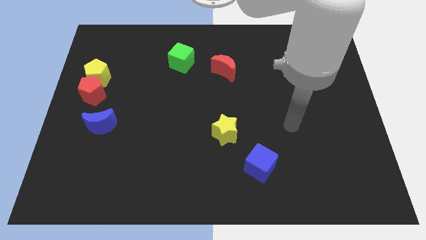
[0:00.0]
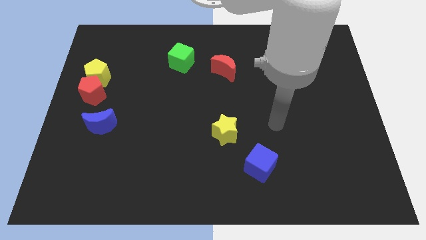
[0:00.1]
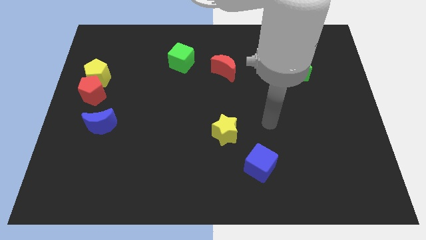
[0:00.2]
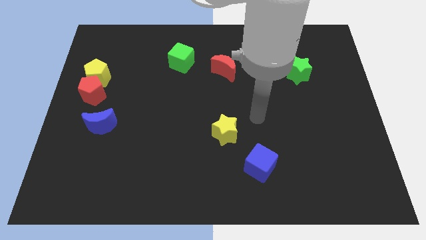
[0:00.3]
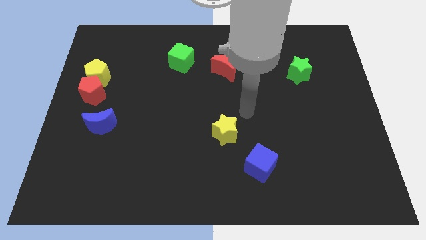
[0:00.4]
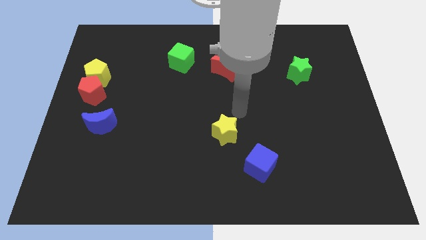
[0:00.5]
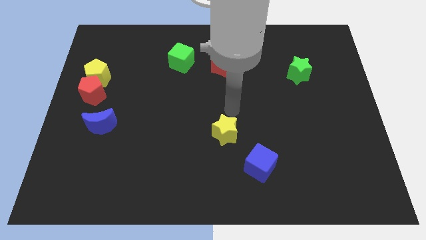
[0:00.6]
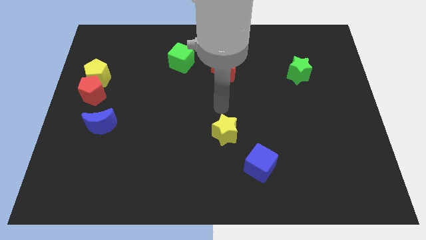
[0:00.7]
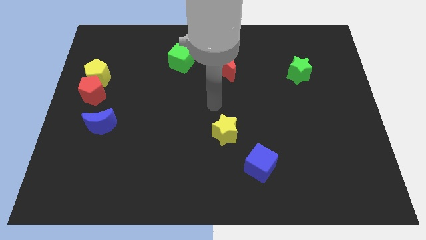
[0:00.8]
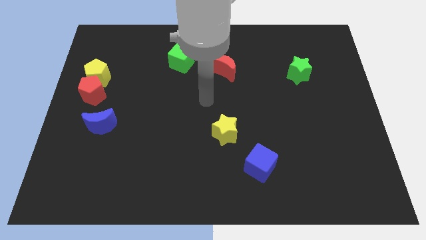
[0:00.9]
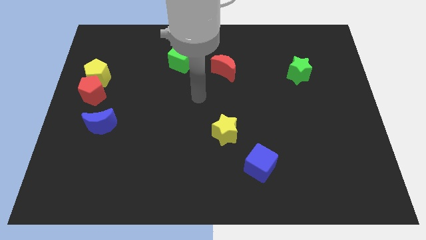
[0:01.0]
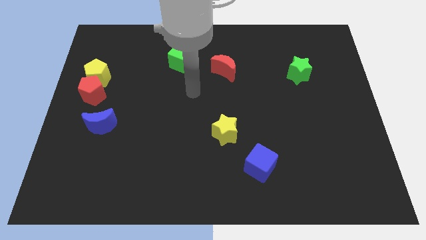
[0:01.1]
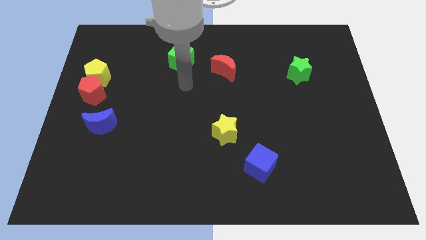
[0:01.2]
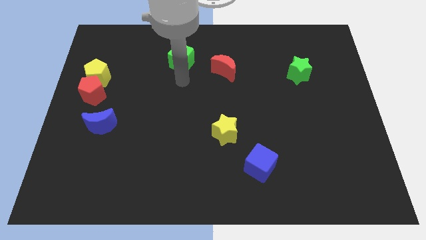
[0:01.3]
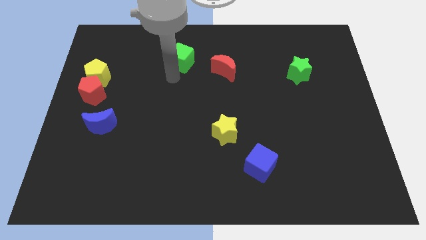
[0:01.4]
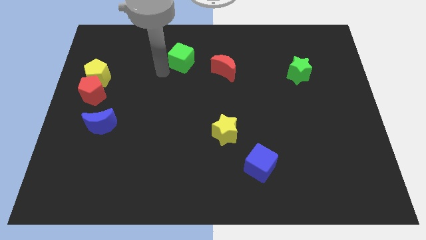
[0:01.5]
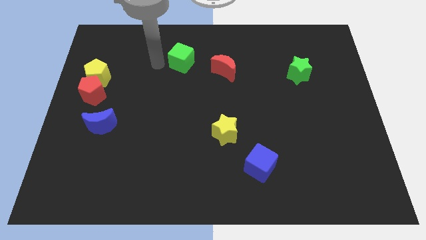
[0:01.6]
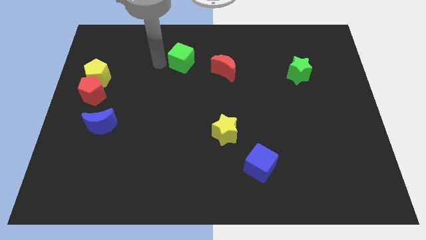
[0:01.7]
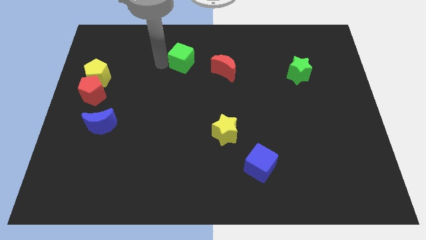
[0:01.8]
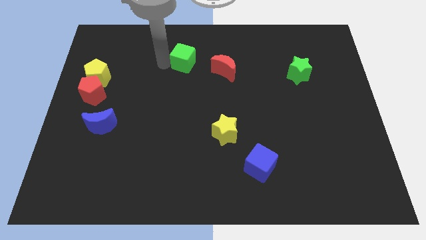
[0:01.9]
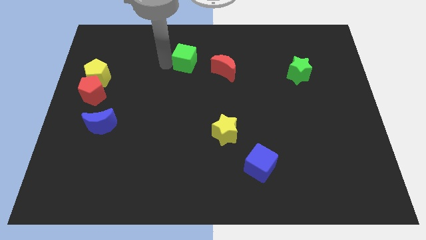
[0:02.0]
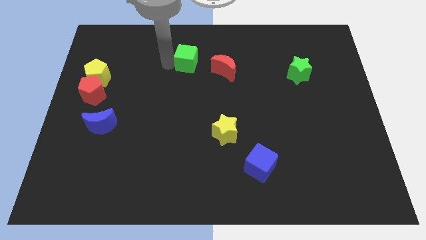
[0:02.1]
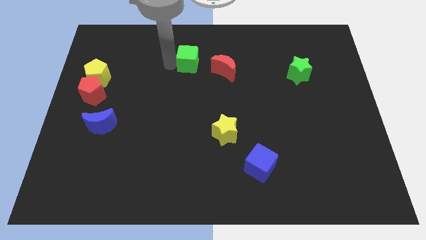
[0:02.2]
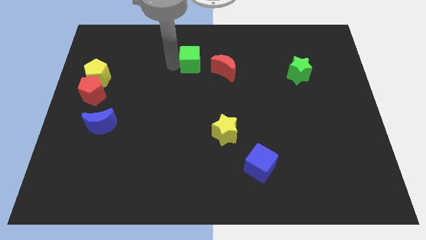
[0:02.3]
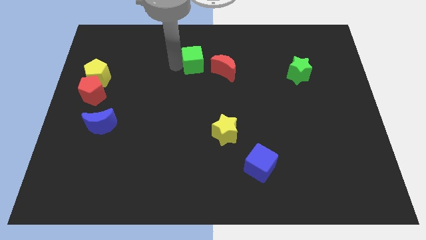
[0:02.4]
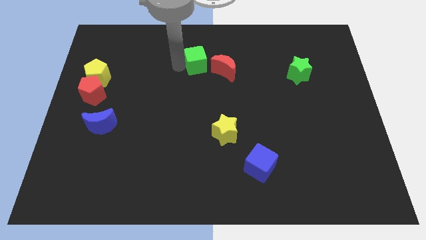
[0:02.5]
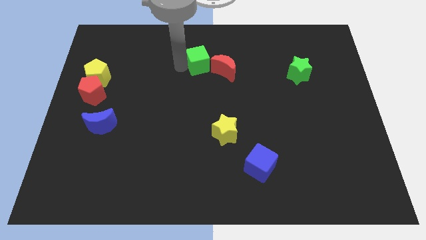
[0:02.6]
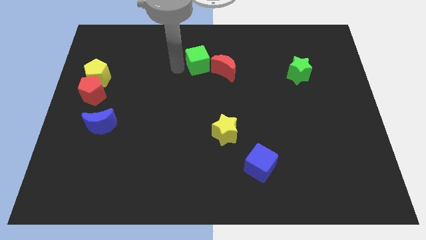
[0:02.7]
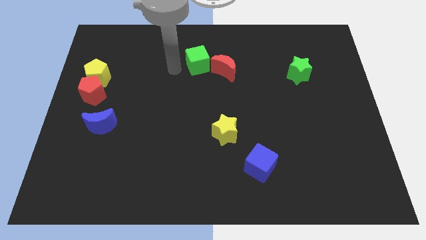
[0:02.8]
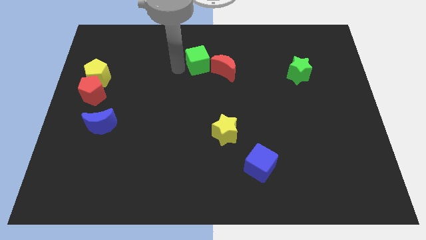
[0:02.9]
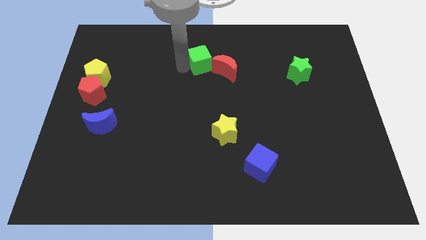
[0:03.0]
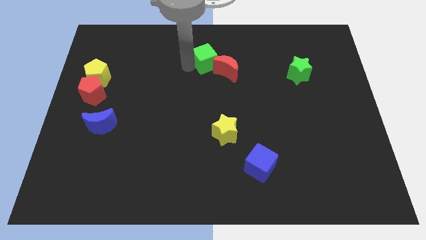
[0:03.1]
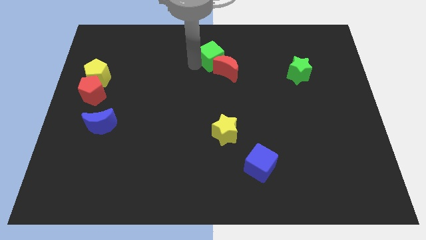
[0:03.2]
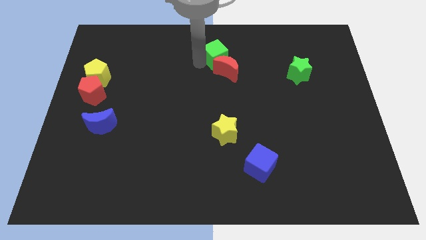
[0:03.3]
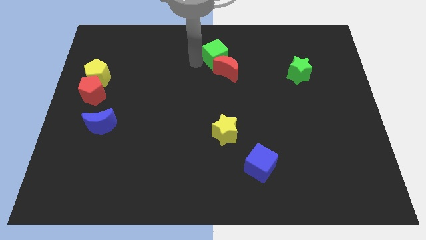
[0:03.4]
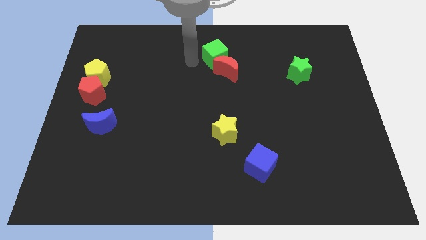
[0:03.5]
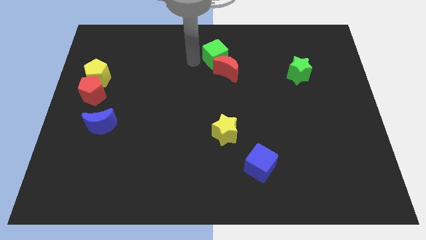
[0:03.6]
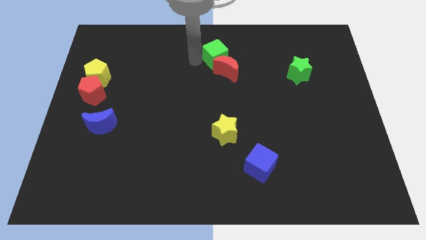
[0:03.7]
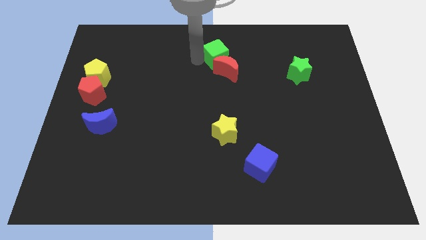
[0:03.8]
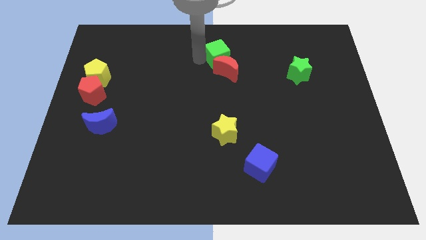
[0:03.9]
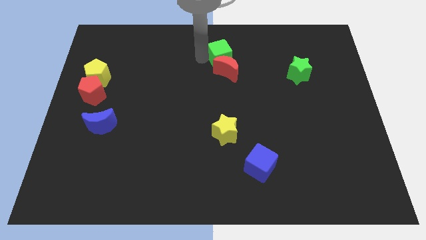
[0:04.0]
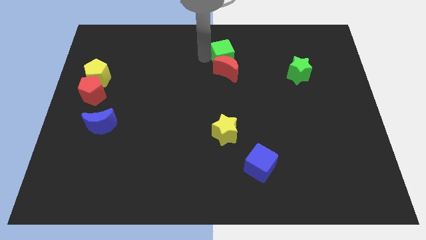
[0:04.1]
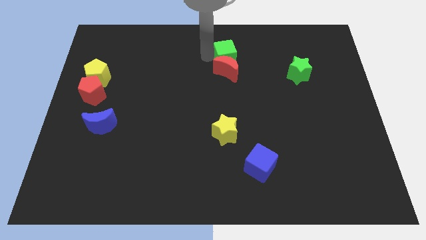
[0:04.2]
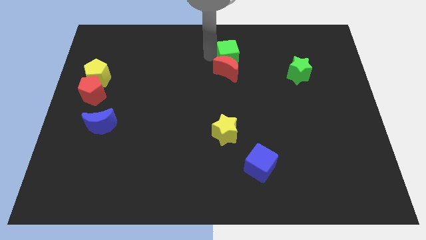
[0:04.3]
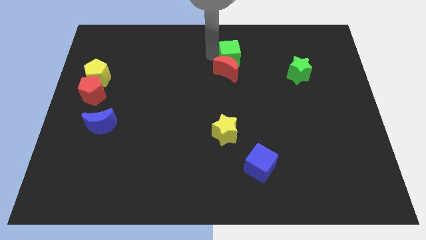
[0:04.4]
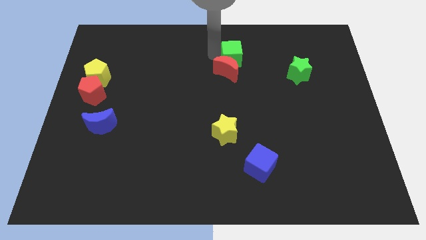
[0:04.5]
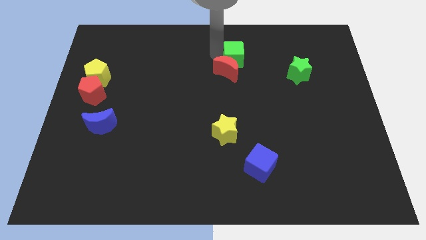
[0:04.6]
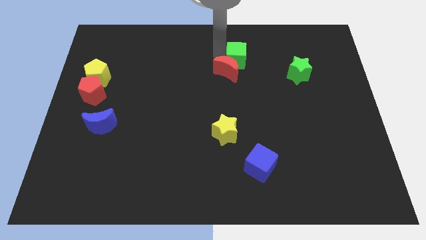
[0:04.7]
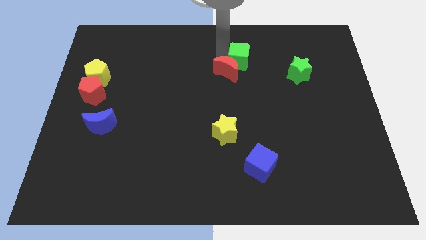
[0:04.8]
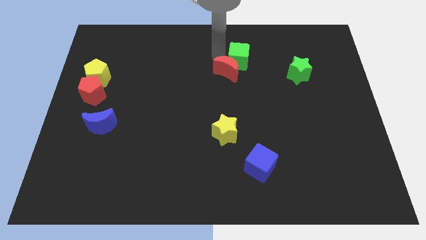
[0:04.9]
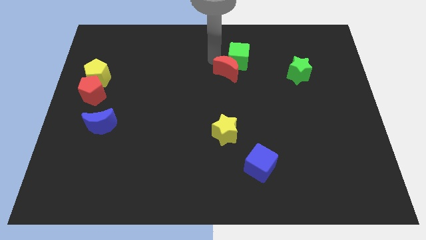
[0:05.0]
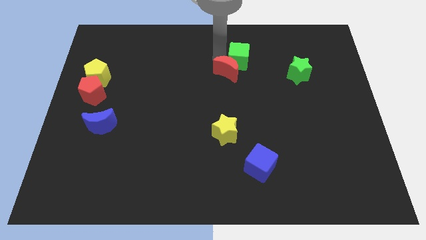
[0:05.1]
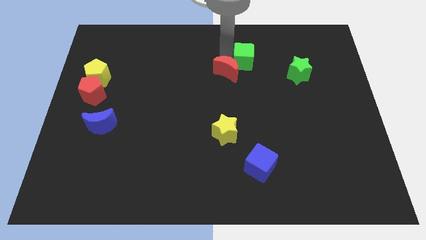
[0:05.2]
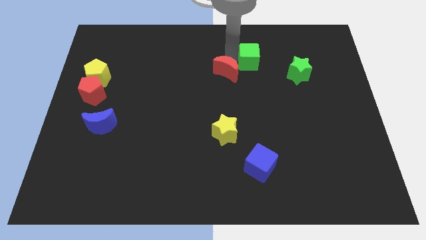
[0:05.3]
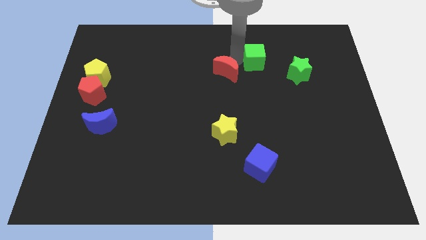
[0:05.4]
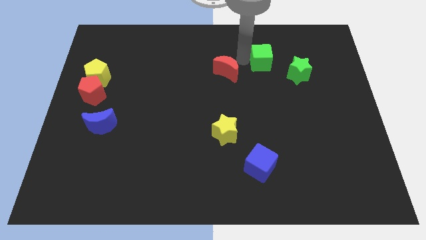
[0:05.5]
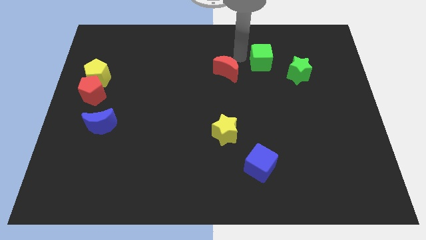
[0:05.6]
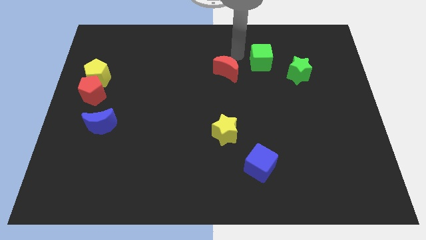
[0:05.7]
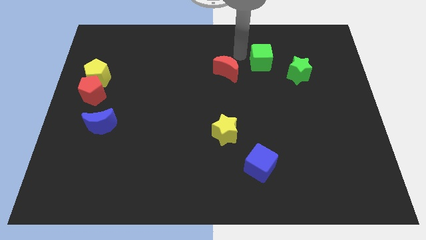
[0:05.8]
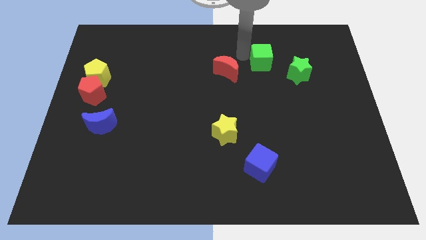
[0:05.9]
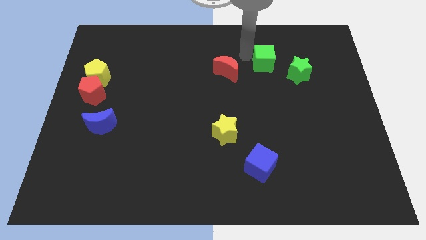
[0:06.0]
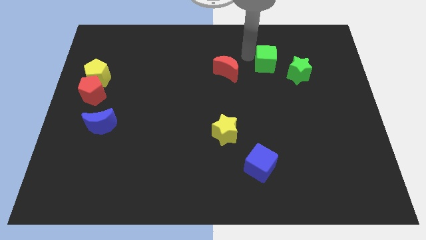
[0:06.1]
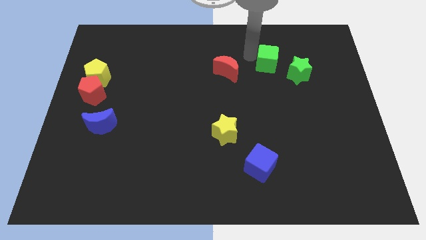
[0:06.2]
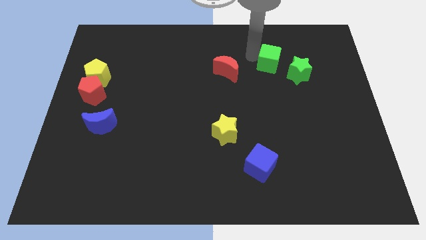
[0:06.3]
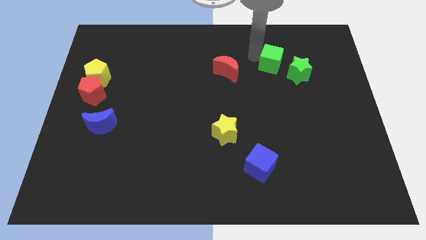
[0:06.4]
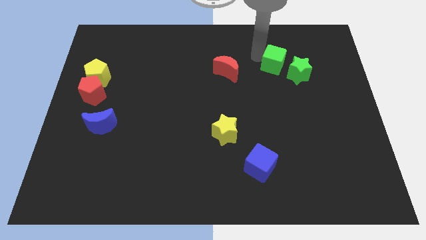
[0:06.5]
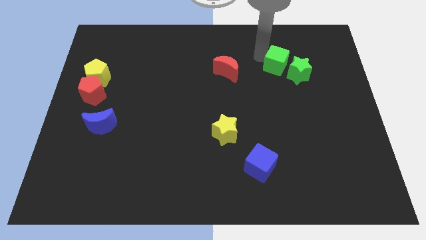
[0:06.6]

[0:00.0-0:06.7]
move the green cube to the green star

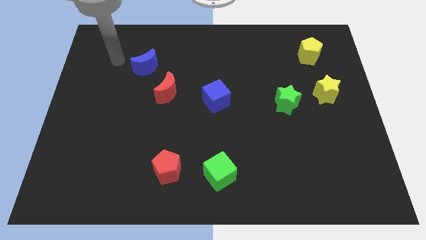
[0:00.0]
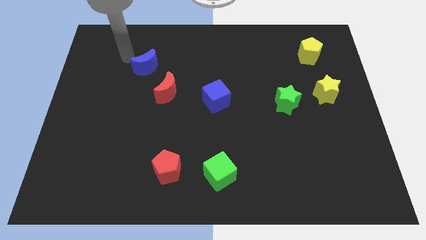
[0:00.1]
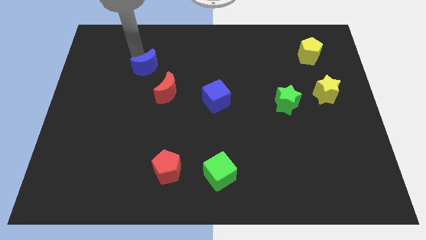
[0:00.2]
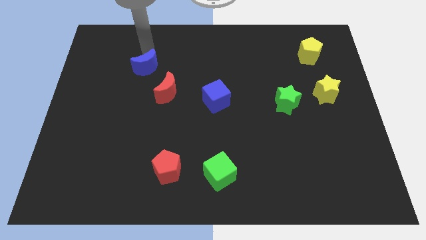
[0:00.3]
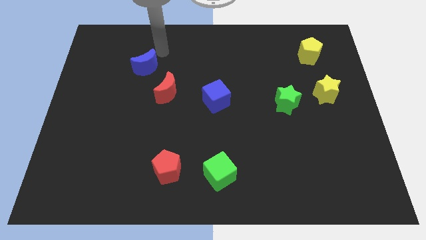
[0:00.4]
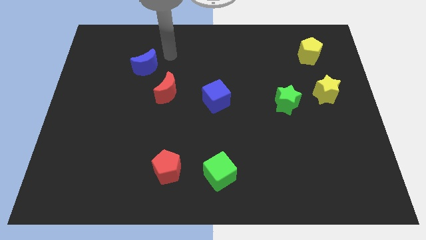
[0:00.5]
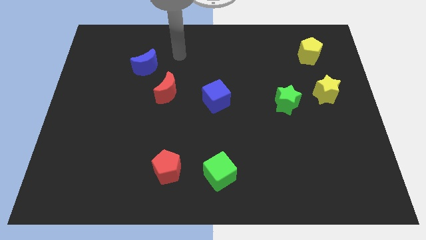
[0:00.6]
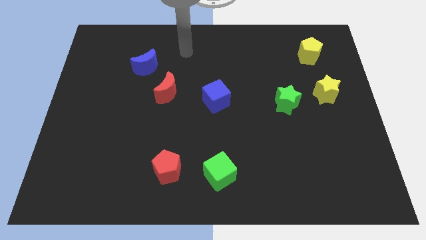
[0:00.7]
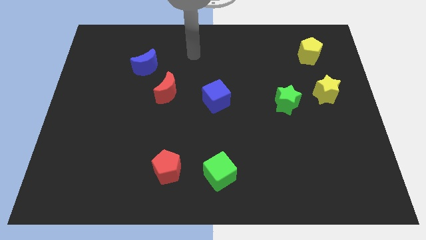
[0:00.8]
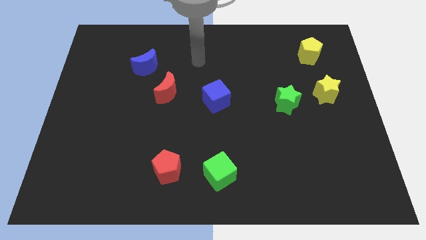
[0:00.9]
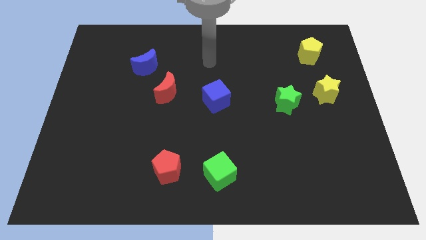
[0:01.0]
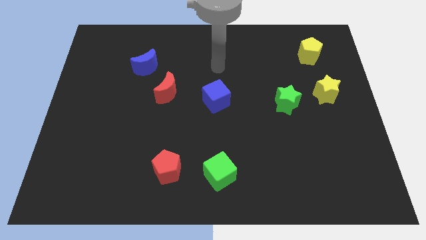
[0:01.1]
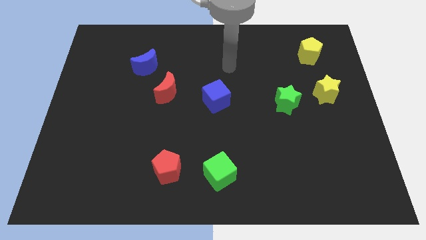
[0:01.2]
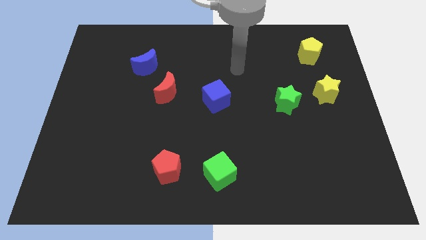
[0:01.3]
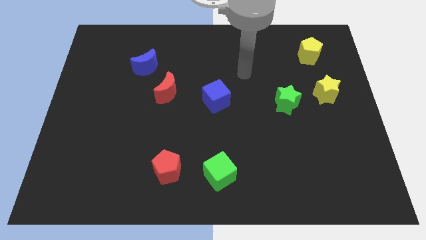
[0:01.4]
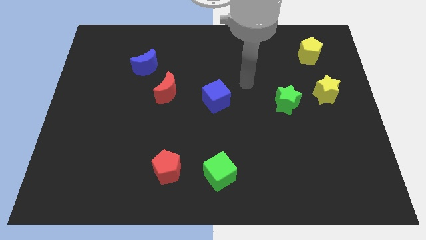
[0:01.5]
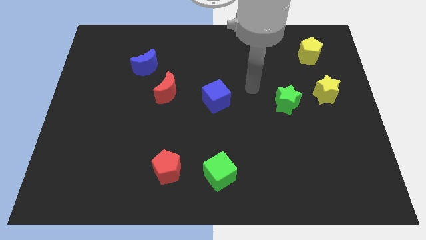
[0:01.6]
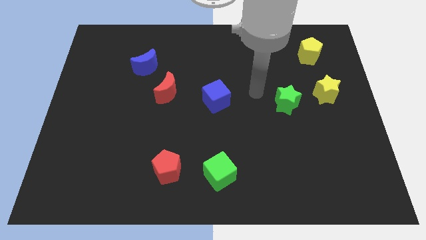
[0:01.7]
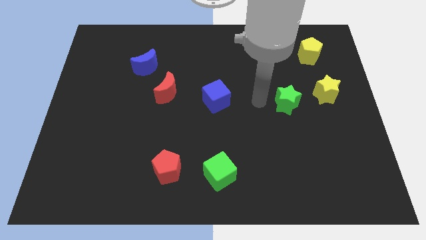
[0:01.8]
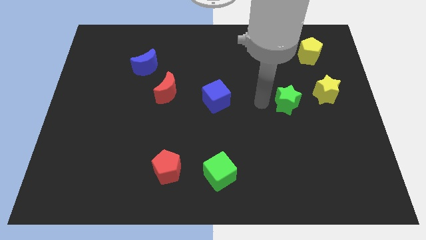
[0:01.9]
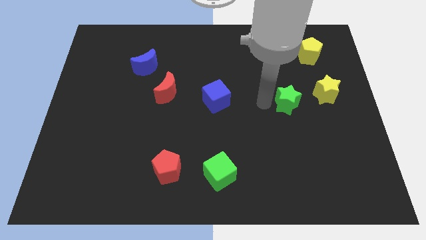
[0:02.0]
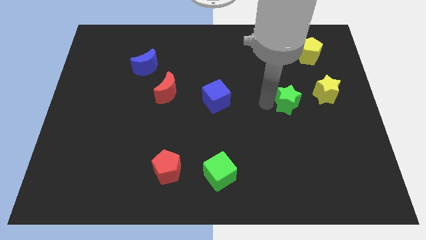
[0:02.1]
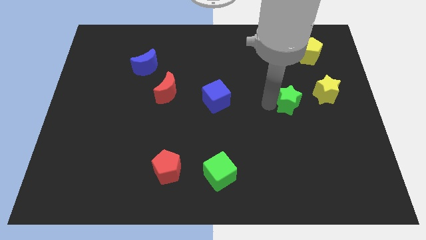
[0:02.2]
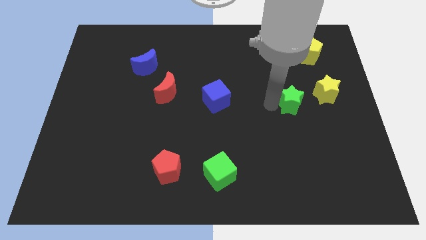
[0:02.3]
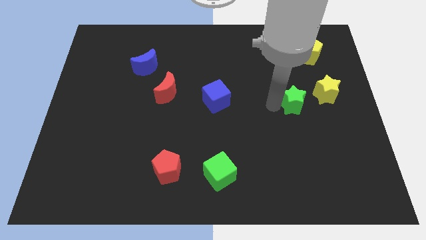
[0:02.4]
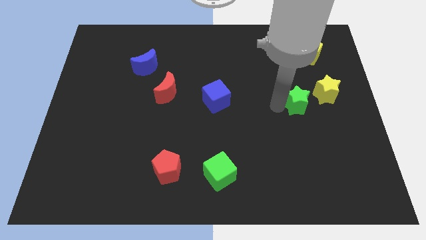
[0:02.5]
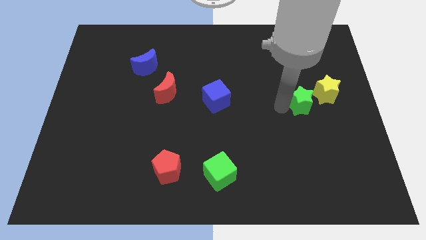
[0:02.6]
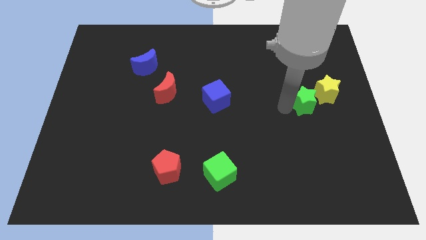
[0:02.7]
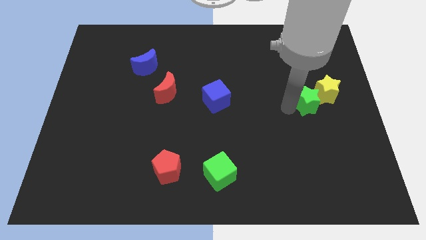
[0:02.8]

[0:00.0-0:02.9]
slide the green star close to the yellow star
